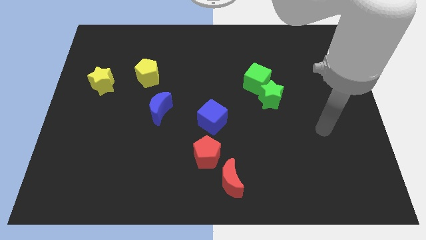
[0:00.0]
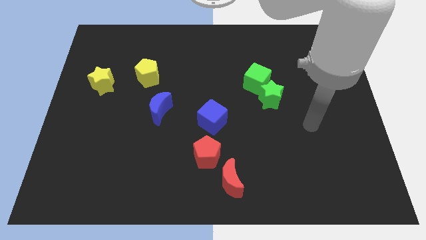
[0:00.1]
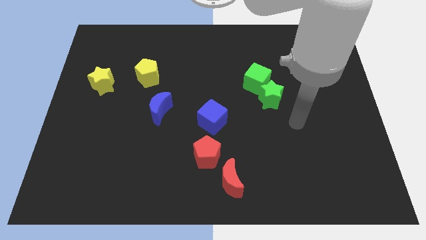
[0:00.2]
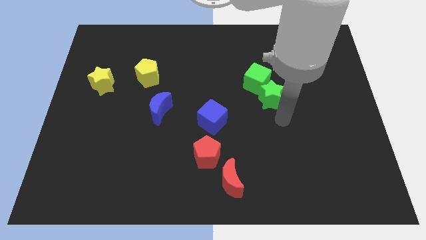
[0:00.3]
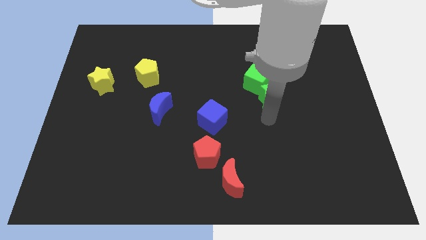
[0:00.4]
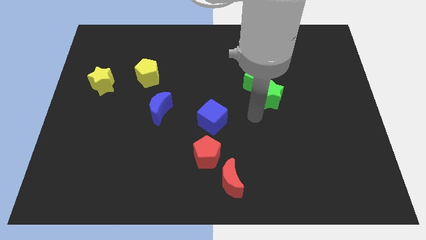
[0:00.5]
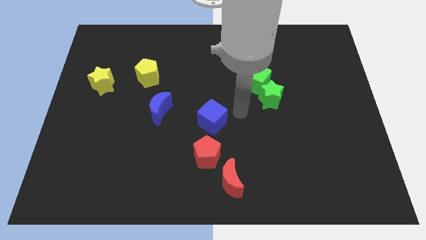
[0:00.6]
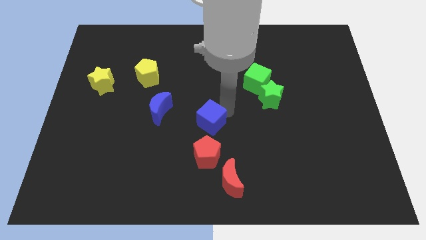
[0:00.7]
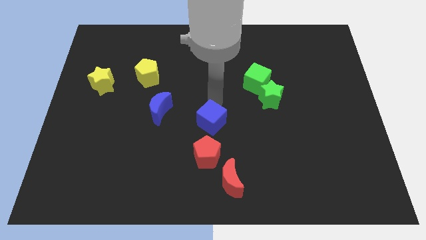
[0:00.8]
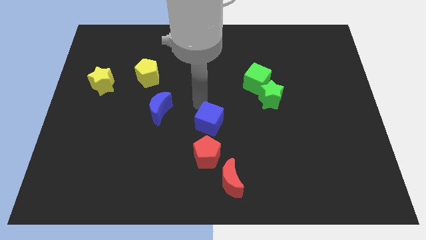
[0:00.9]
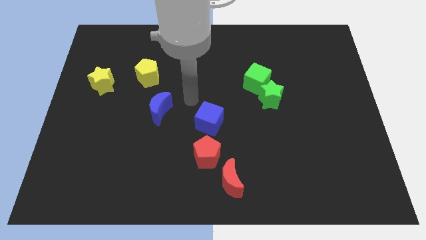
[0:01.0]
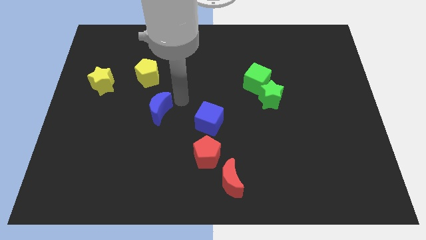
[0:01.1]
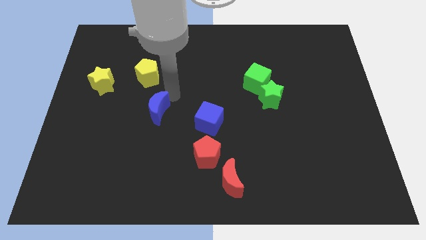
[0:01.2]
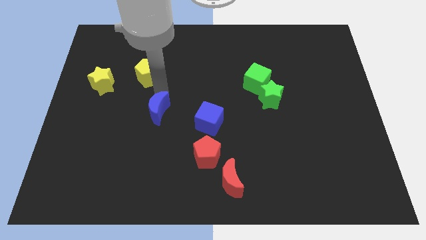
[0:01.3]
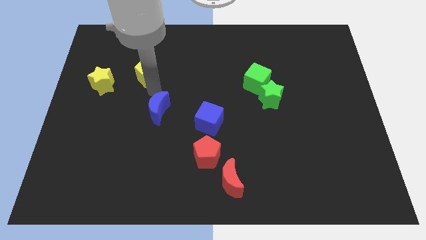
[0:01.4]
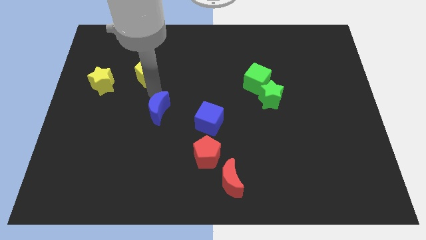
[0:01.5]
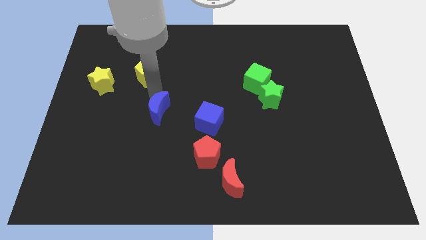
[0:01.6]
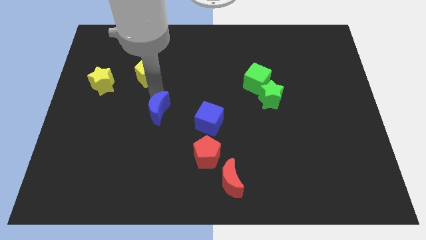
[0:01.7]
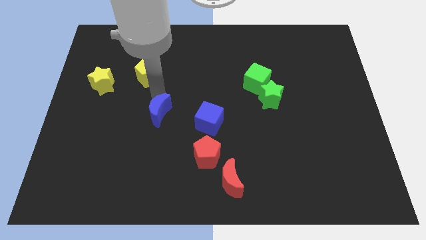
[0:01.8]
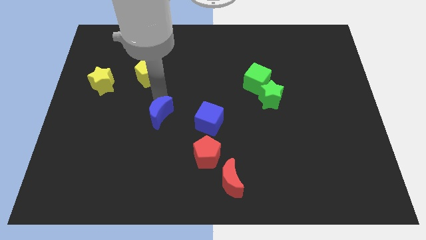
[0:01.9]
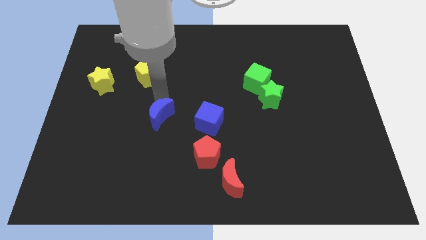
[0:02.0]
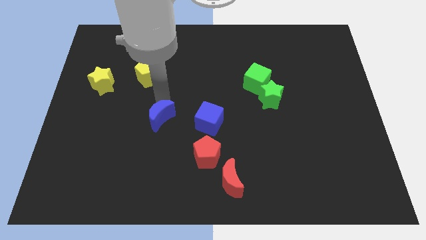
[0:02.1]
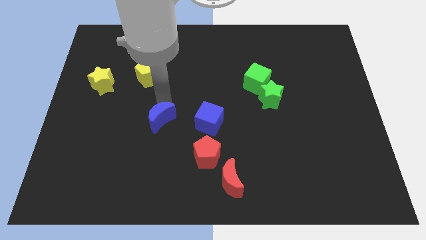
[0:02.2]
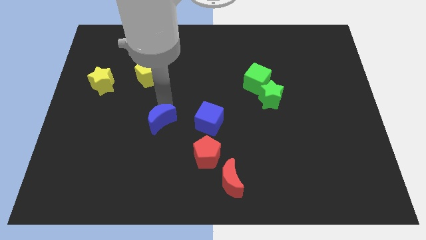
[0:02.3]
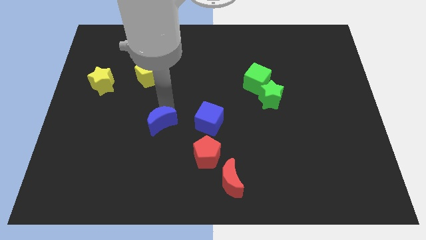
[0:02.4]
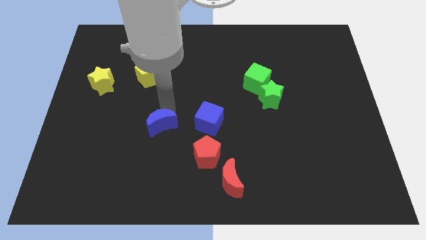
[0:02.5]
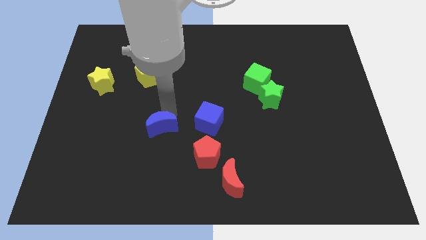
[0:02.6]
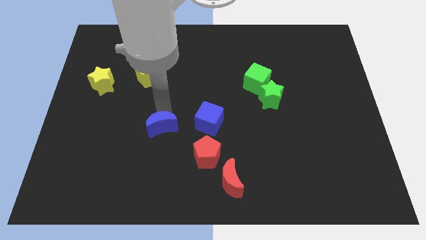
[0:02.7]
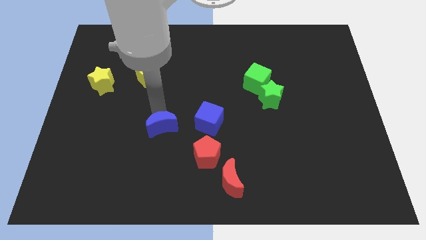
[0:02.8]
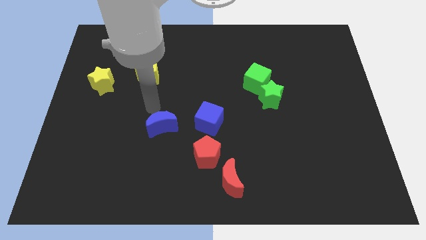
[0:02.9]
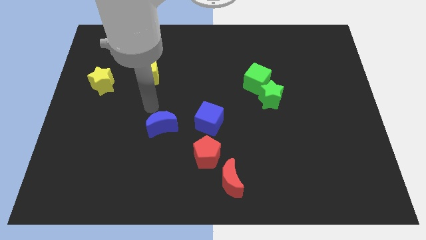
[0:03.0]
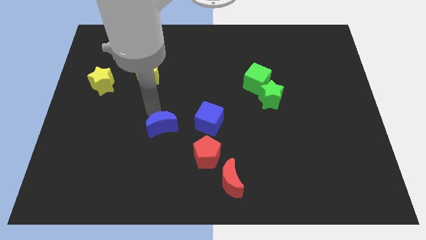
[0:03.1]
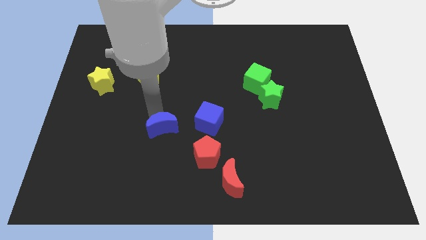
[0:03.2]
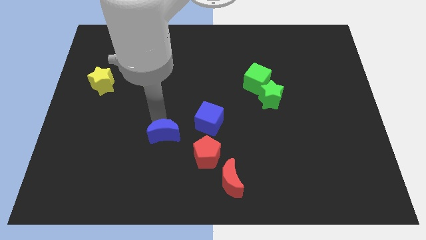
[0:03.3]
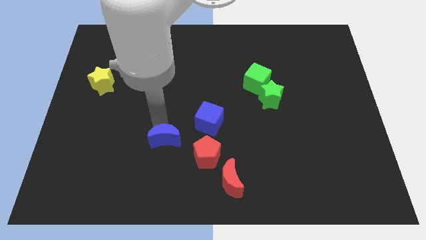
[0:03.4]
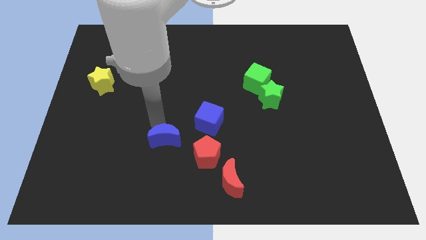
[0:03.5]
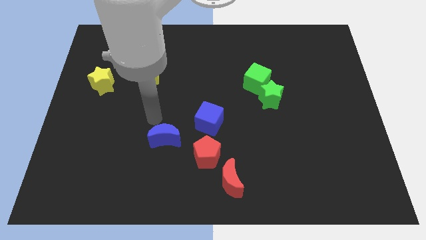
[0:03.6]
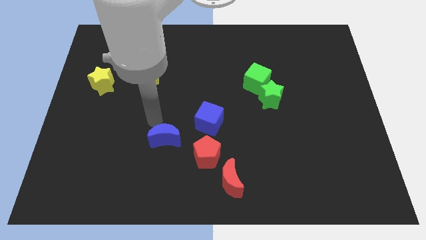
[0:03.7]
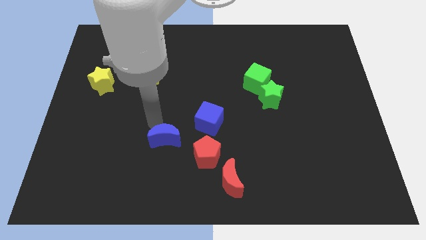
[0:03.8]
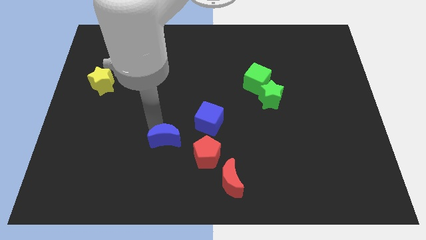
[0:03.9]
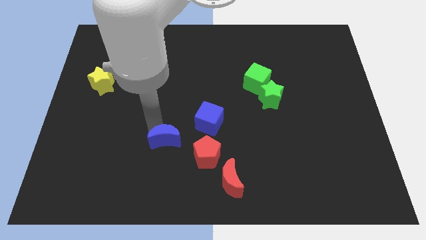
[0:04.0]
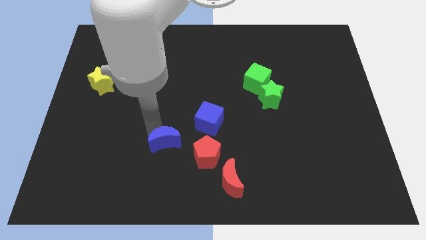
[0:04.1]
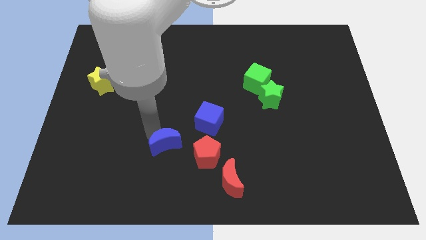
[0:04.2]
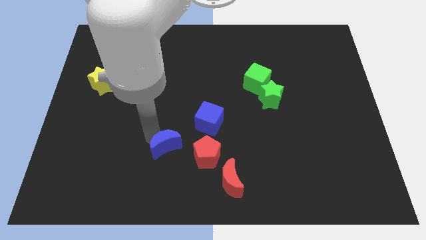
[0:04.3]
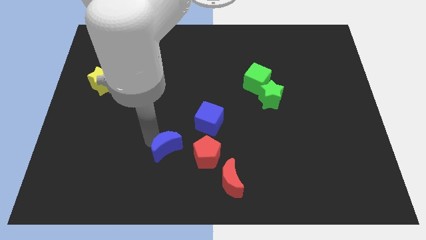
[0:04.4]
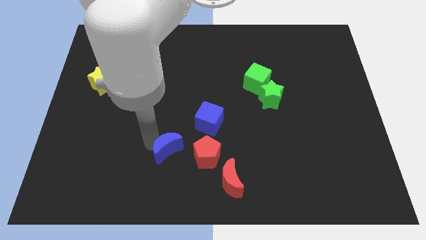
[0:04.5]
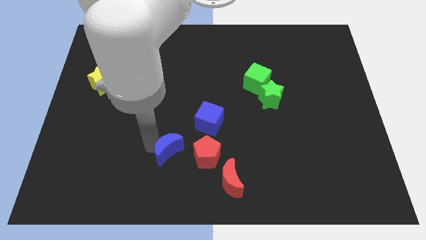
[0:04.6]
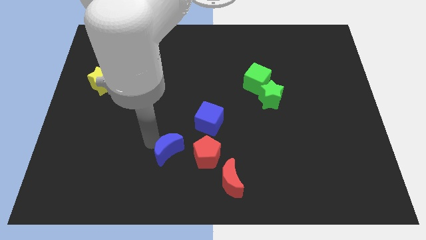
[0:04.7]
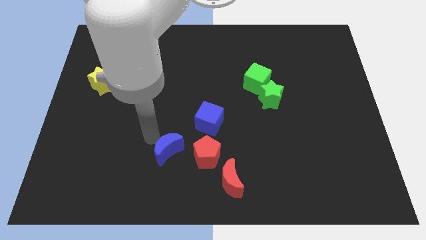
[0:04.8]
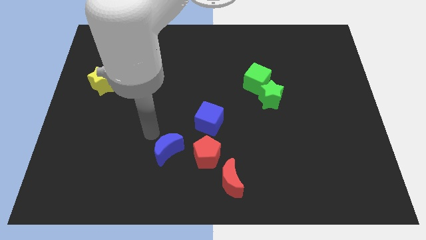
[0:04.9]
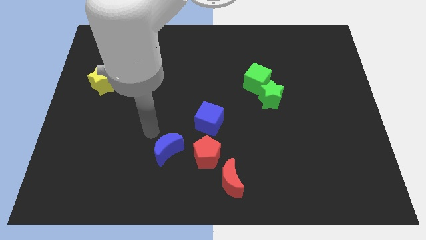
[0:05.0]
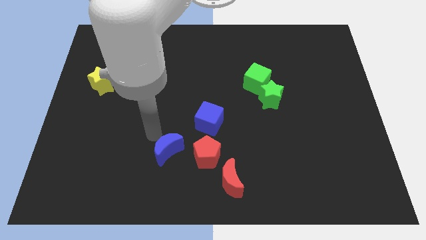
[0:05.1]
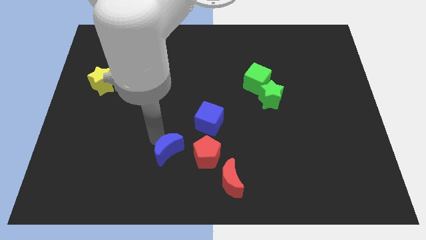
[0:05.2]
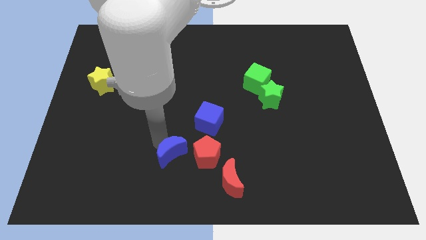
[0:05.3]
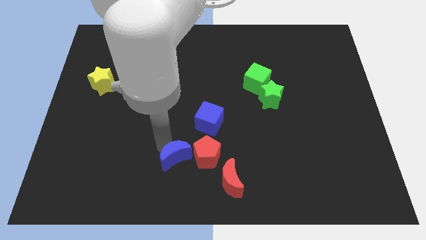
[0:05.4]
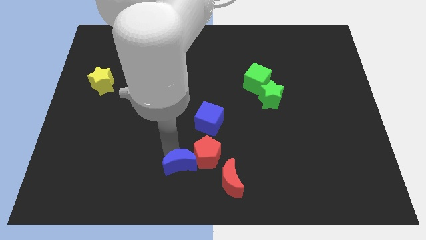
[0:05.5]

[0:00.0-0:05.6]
move the blue moon to the bottom side
